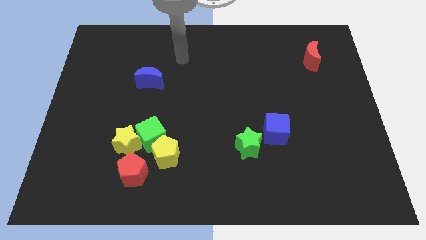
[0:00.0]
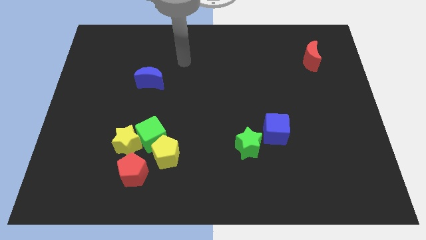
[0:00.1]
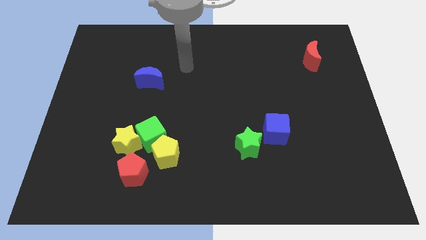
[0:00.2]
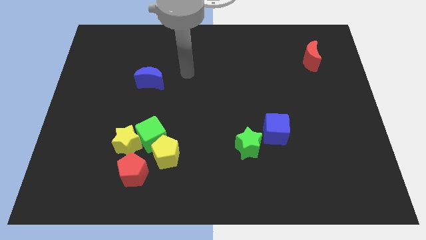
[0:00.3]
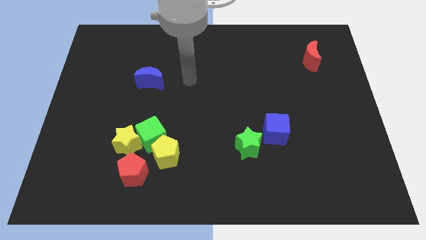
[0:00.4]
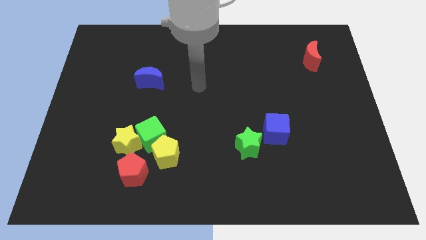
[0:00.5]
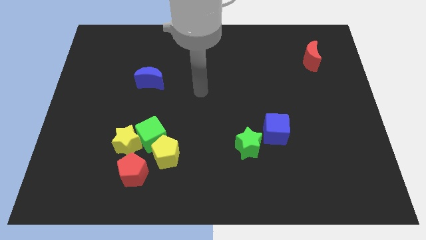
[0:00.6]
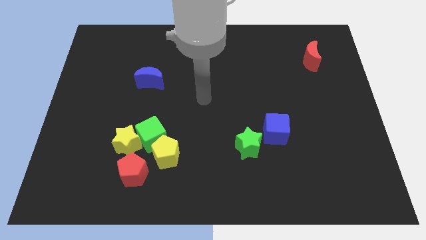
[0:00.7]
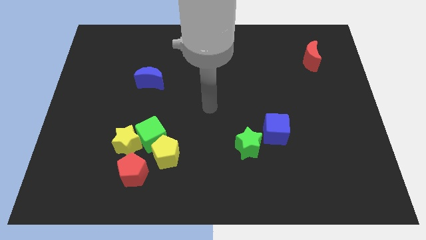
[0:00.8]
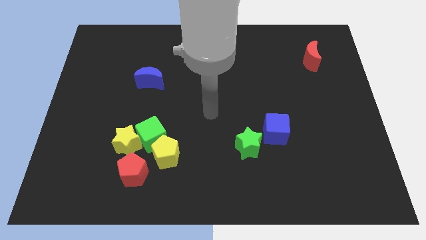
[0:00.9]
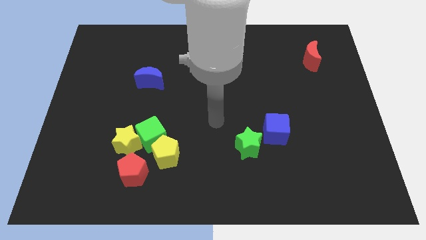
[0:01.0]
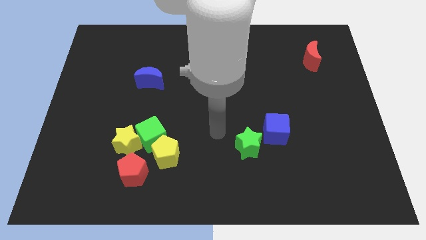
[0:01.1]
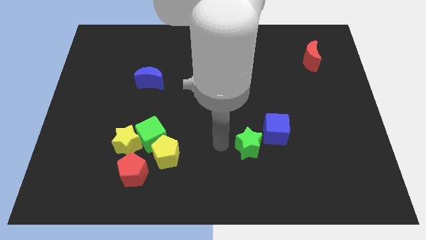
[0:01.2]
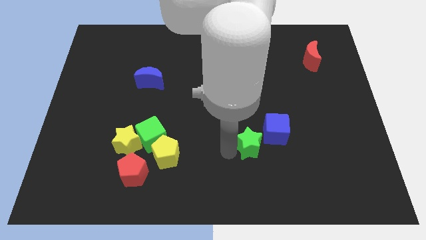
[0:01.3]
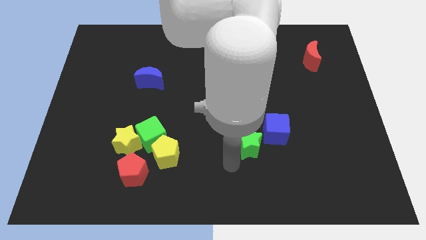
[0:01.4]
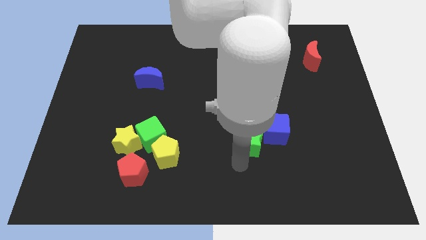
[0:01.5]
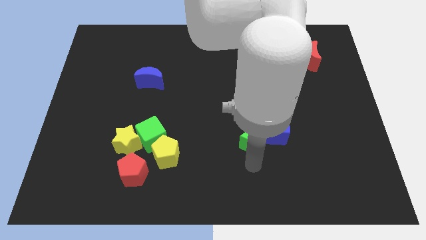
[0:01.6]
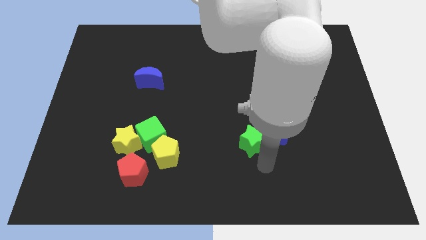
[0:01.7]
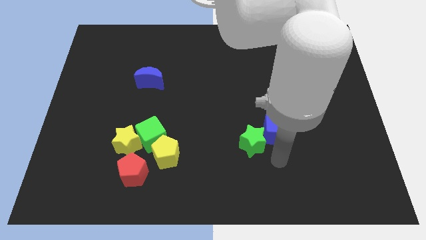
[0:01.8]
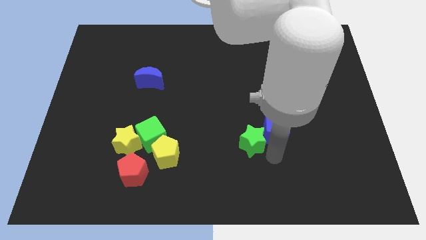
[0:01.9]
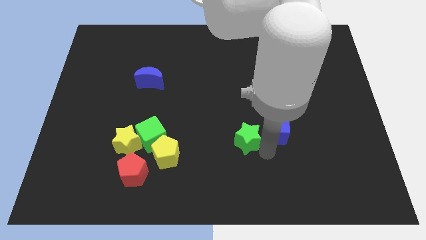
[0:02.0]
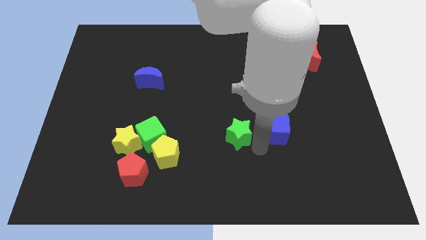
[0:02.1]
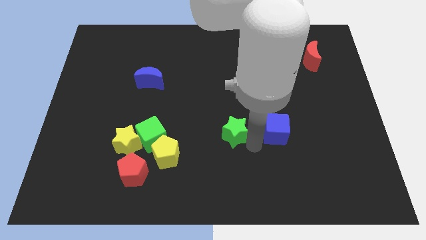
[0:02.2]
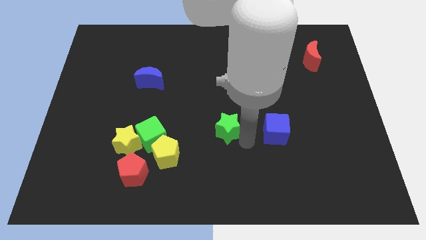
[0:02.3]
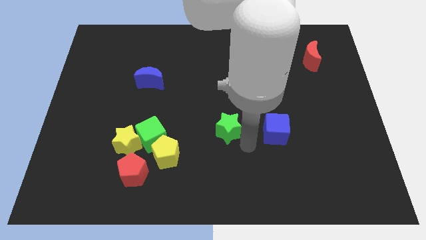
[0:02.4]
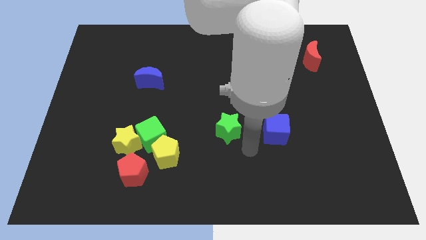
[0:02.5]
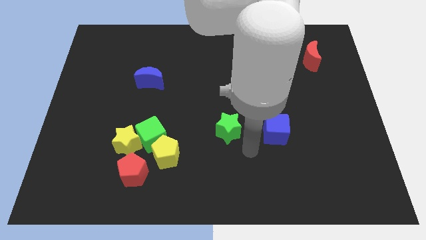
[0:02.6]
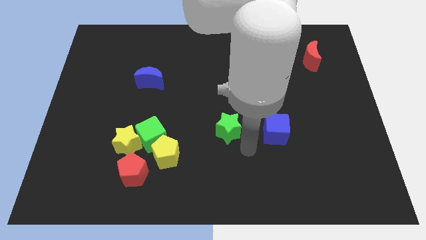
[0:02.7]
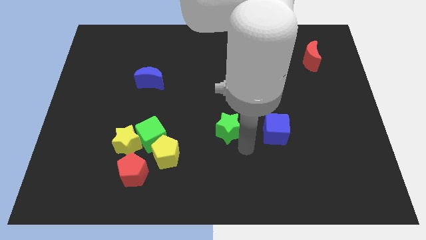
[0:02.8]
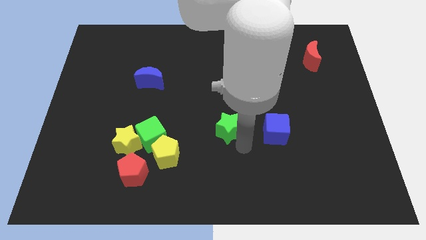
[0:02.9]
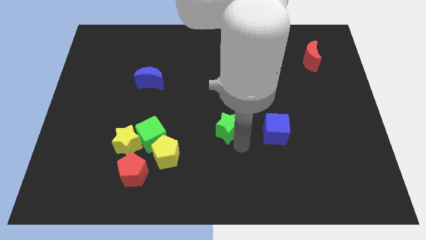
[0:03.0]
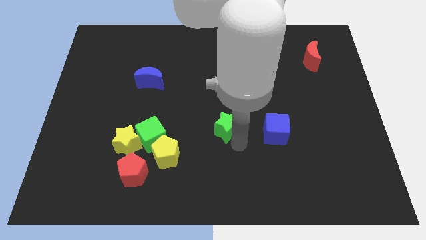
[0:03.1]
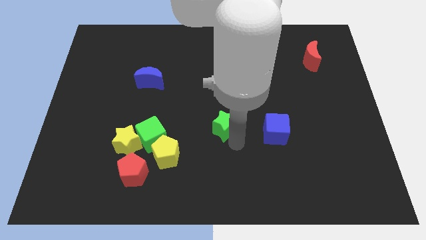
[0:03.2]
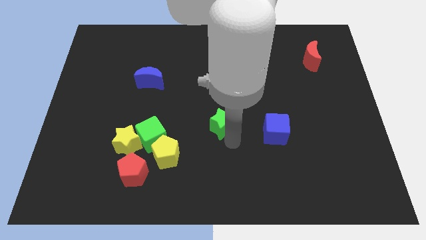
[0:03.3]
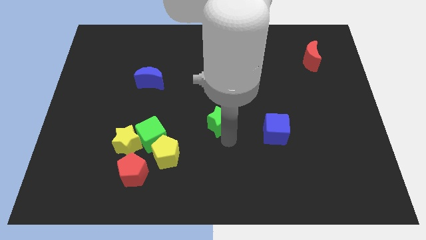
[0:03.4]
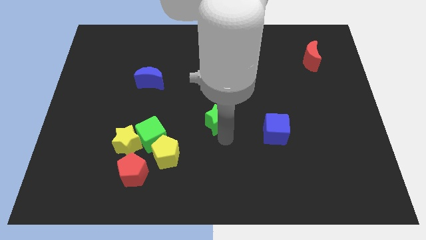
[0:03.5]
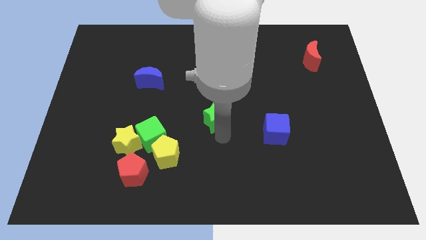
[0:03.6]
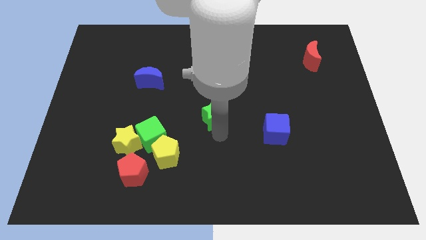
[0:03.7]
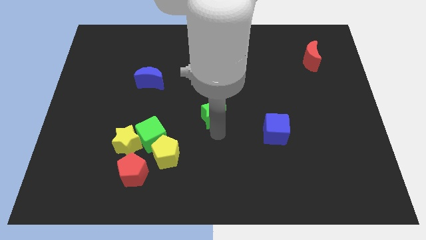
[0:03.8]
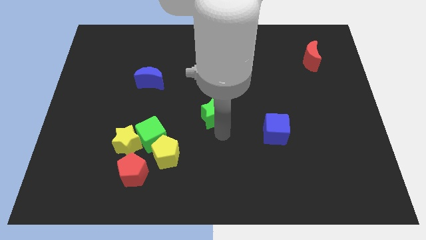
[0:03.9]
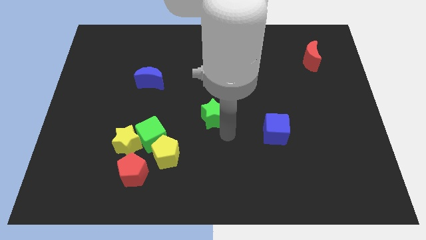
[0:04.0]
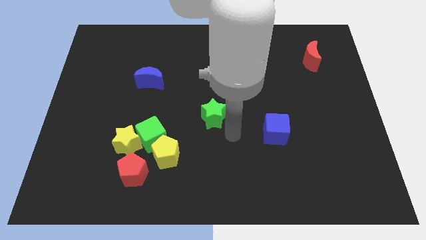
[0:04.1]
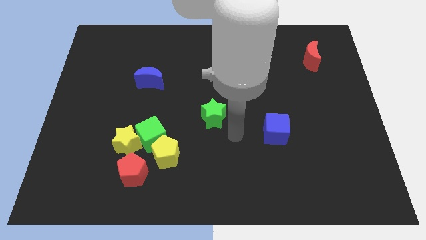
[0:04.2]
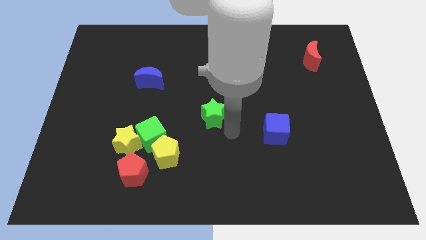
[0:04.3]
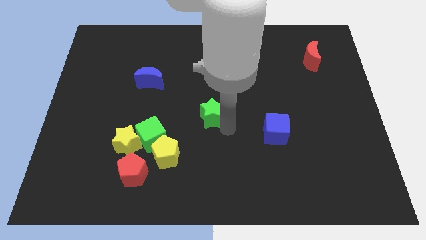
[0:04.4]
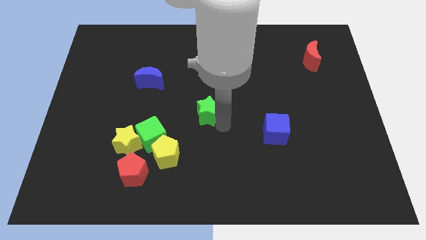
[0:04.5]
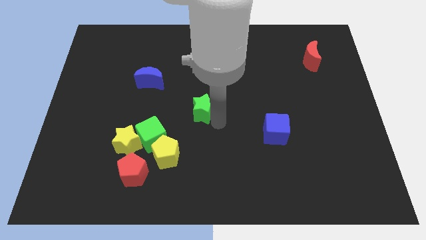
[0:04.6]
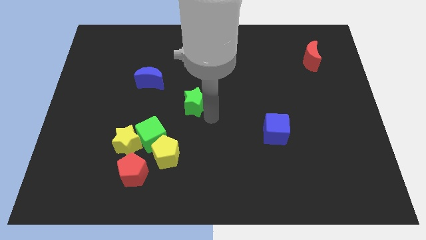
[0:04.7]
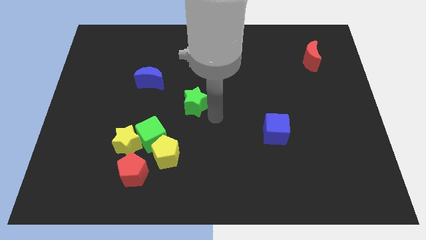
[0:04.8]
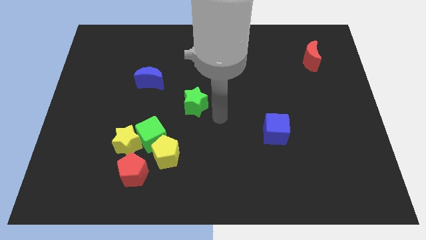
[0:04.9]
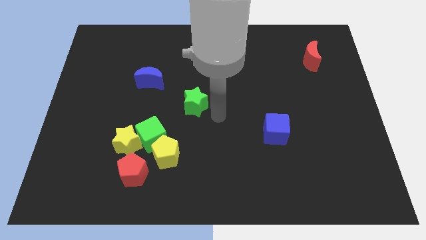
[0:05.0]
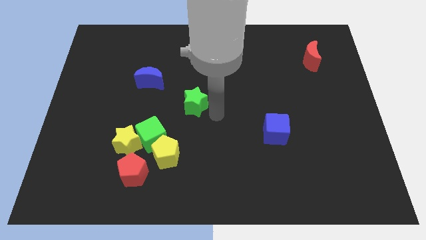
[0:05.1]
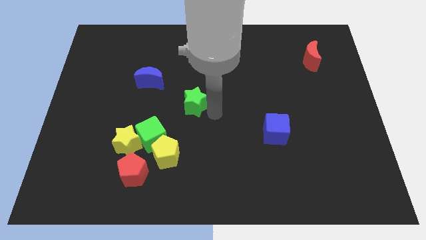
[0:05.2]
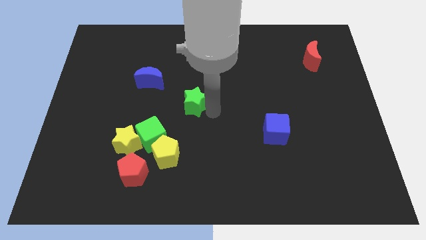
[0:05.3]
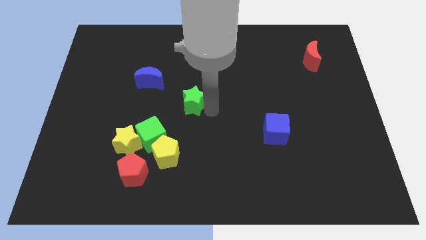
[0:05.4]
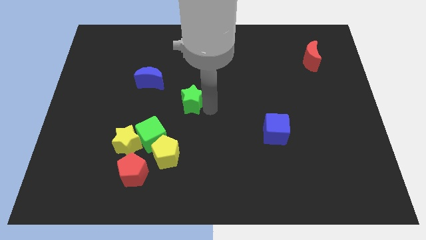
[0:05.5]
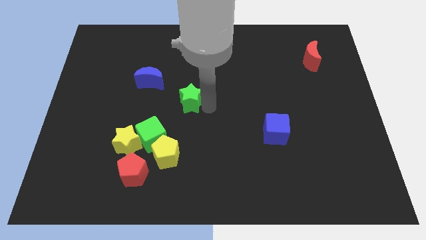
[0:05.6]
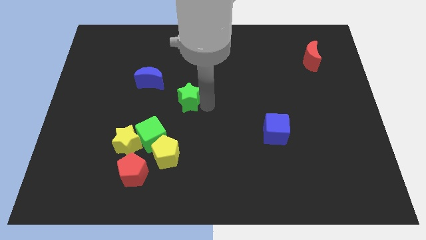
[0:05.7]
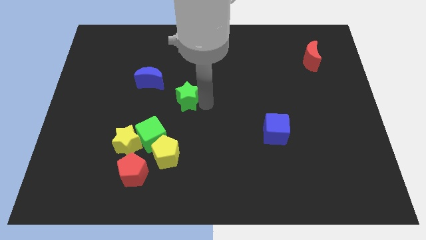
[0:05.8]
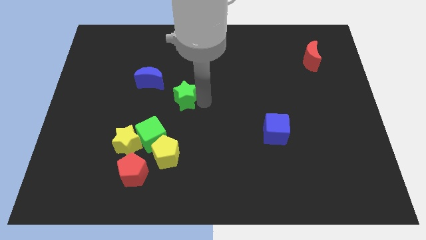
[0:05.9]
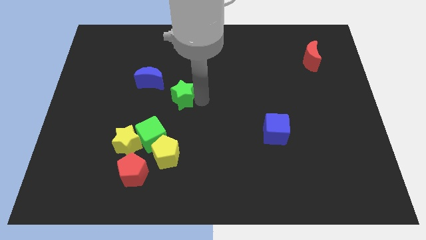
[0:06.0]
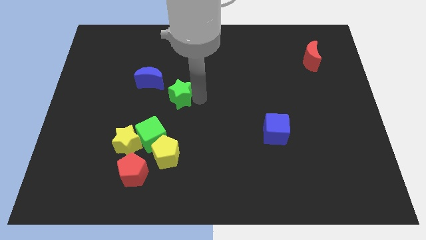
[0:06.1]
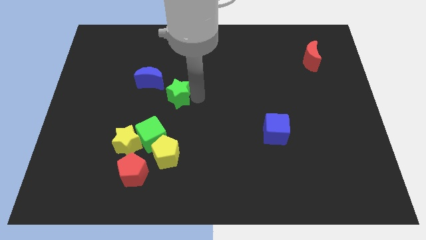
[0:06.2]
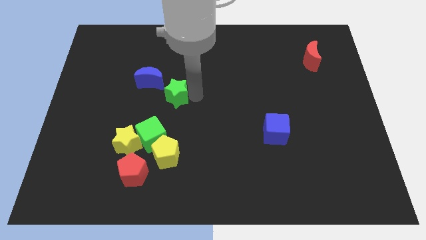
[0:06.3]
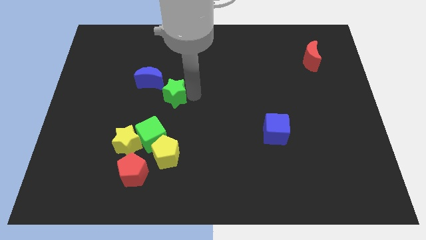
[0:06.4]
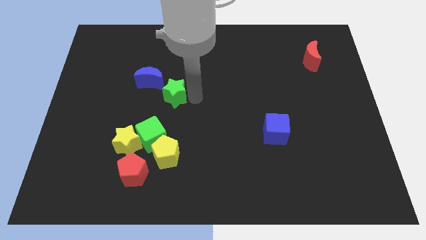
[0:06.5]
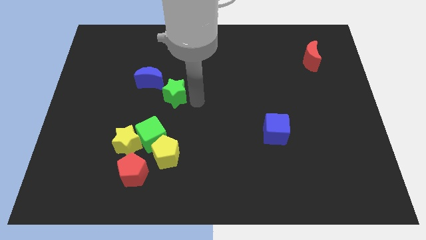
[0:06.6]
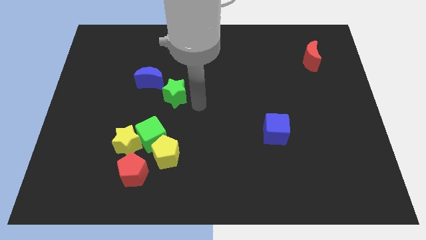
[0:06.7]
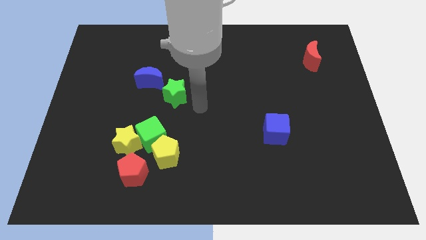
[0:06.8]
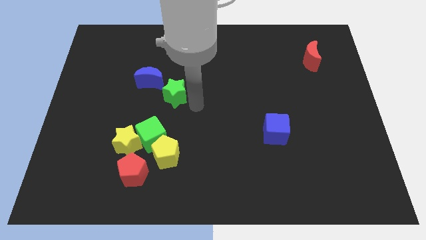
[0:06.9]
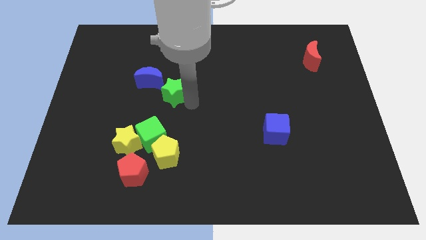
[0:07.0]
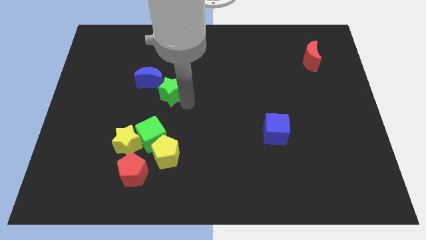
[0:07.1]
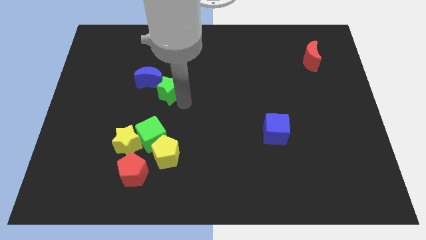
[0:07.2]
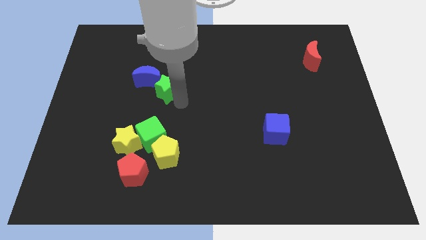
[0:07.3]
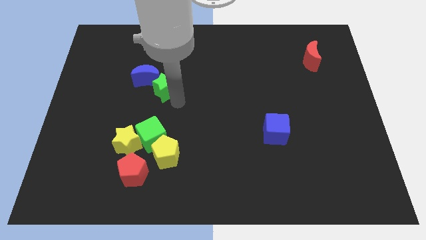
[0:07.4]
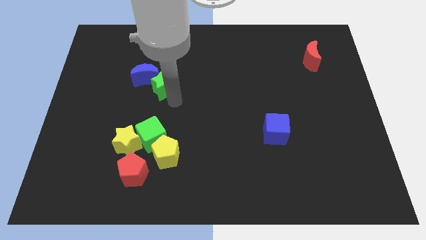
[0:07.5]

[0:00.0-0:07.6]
put the green star next to the blue moon
